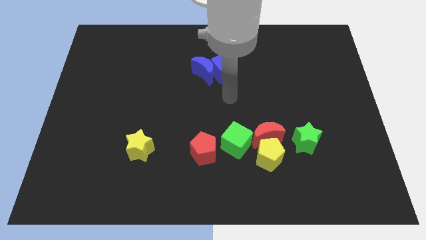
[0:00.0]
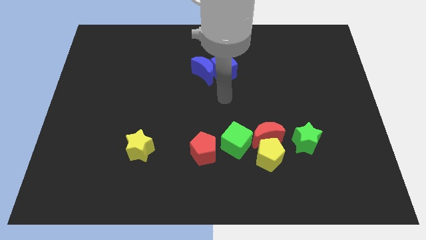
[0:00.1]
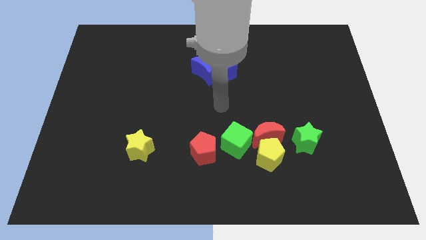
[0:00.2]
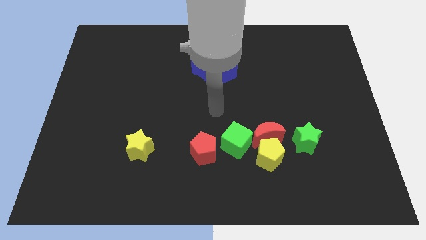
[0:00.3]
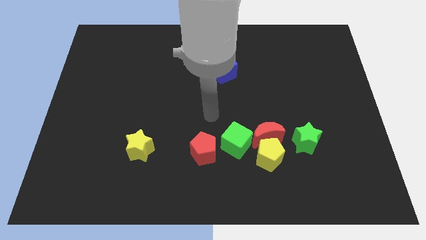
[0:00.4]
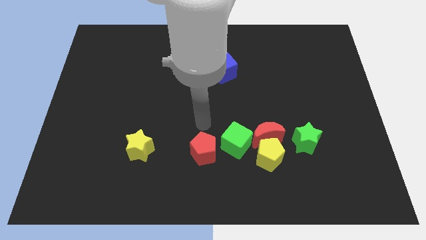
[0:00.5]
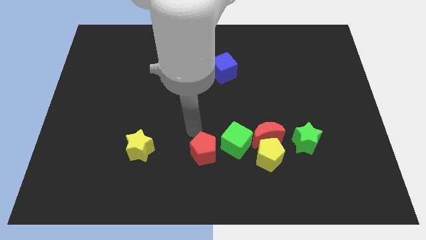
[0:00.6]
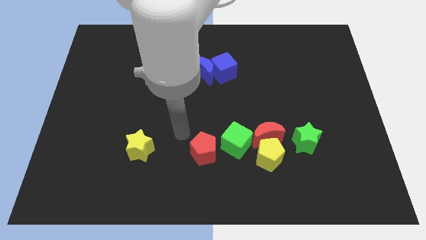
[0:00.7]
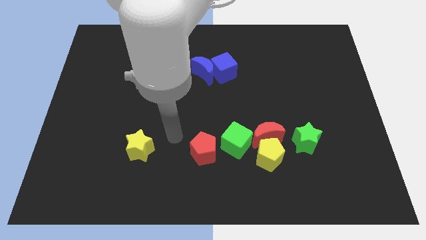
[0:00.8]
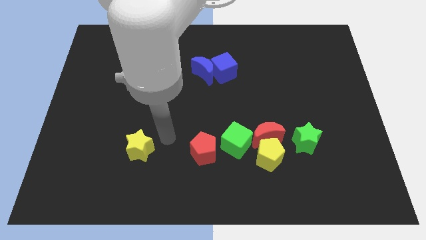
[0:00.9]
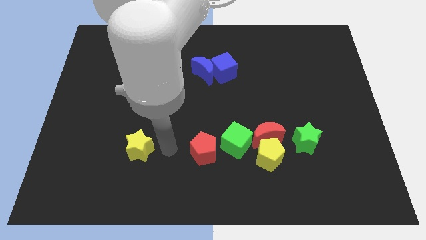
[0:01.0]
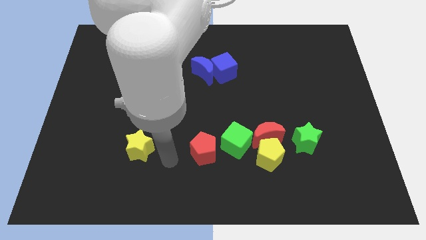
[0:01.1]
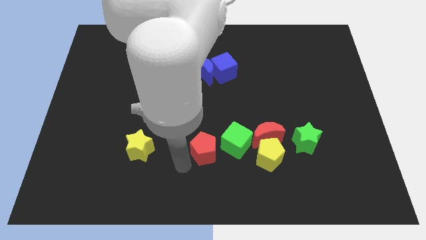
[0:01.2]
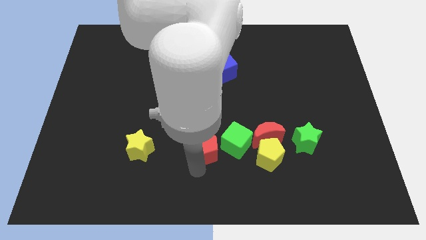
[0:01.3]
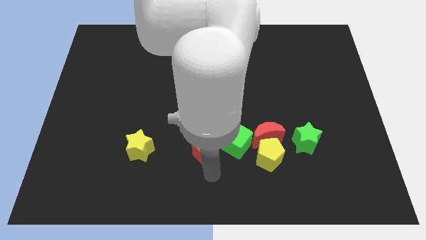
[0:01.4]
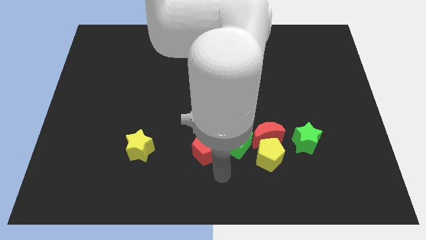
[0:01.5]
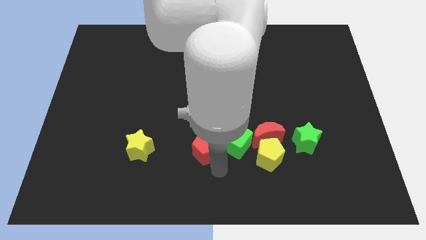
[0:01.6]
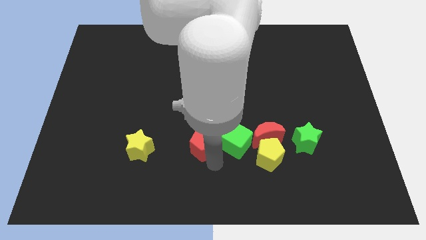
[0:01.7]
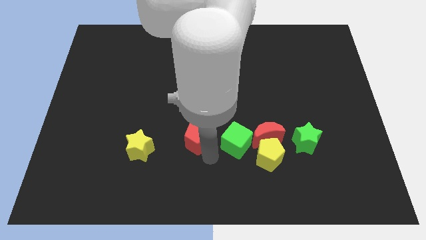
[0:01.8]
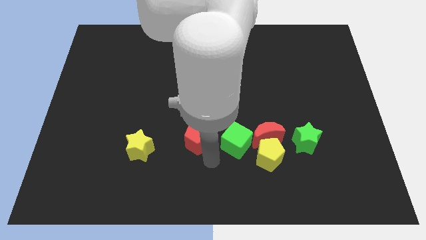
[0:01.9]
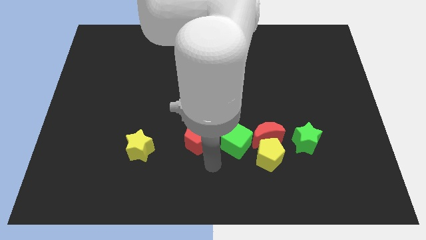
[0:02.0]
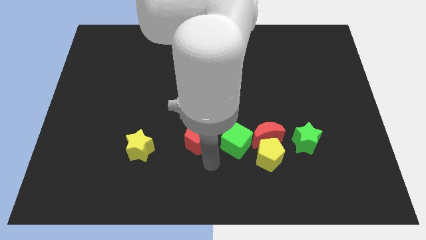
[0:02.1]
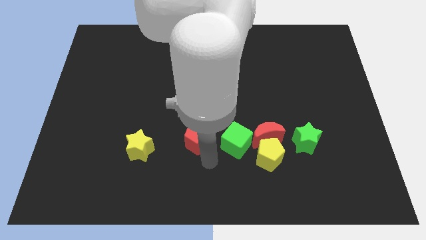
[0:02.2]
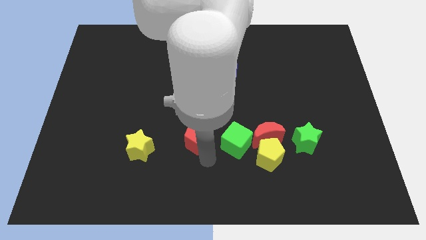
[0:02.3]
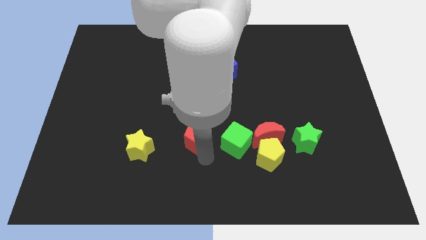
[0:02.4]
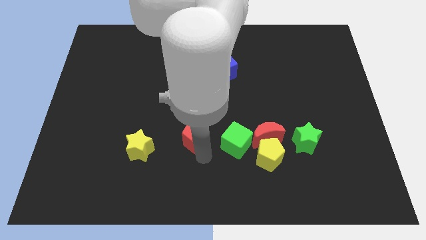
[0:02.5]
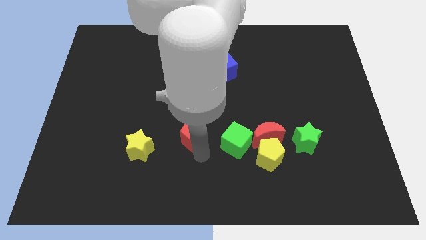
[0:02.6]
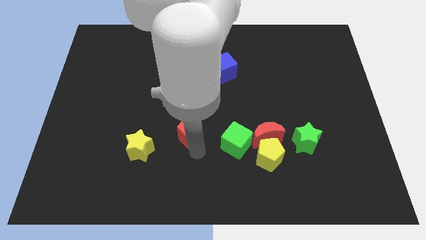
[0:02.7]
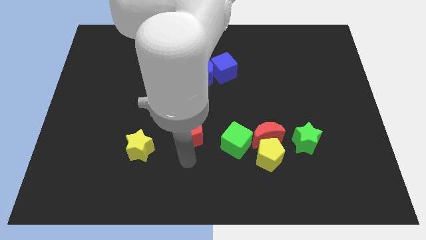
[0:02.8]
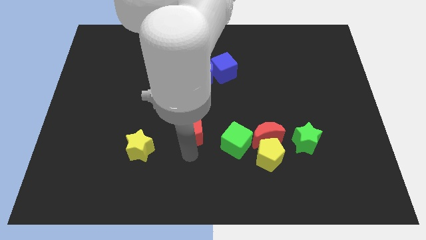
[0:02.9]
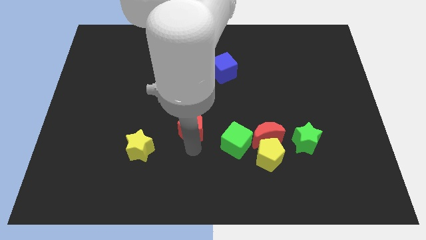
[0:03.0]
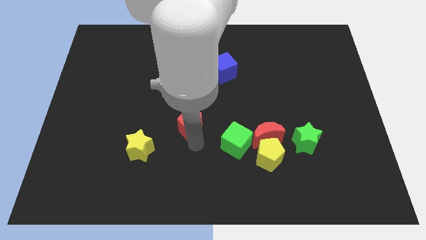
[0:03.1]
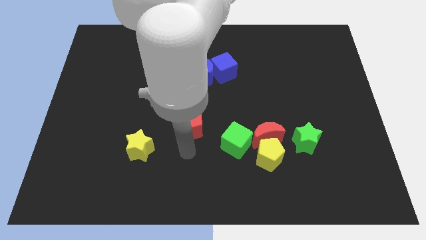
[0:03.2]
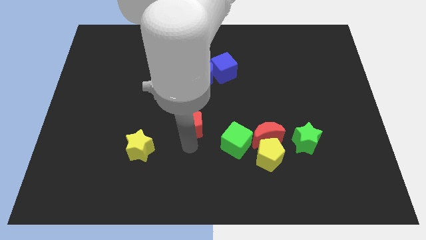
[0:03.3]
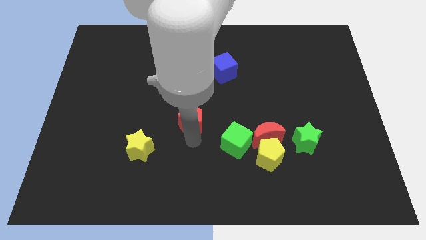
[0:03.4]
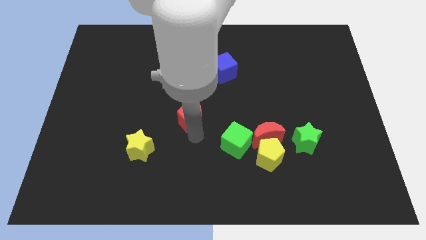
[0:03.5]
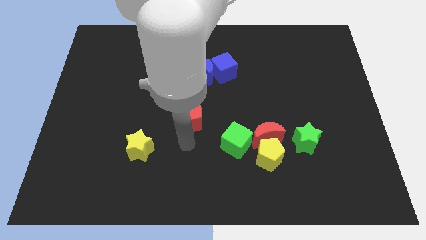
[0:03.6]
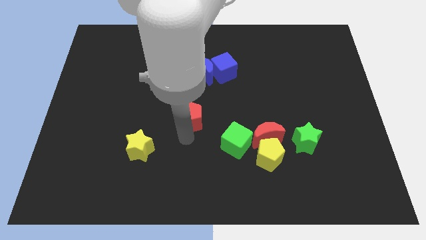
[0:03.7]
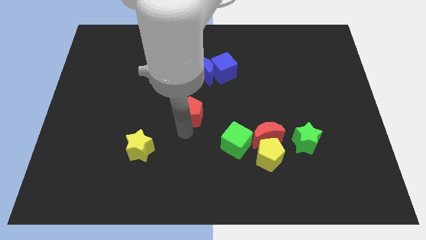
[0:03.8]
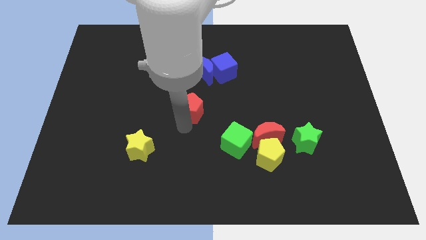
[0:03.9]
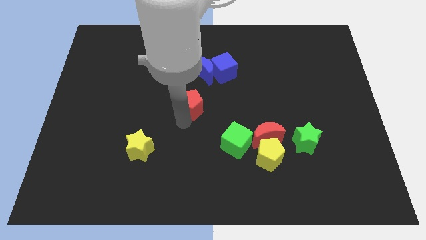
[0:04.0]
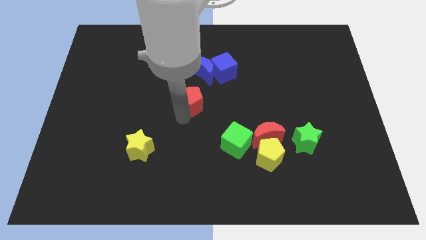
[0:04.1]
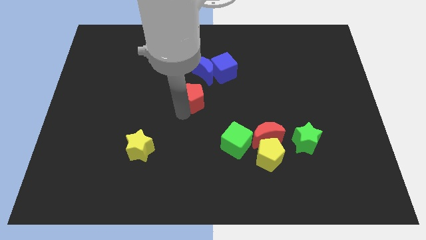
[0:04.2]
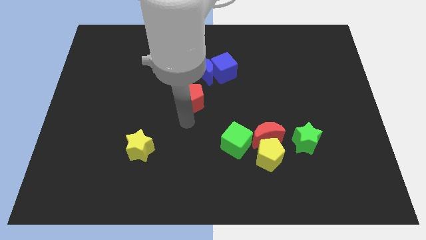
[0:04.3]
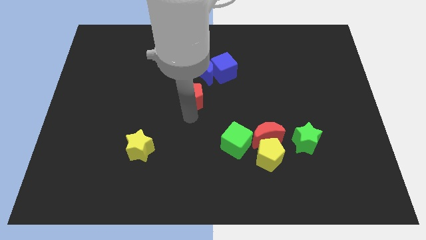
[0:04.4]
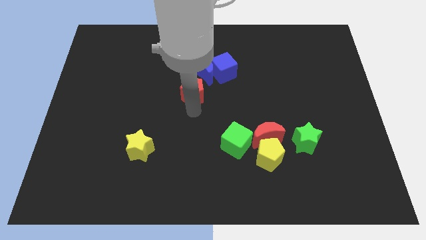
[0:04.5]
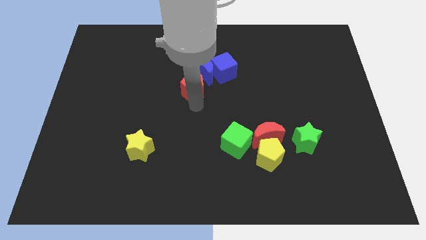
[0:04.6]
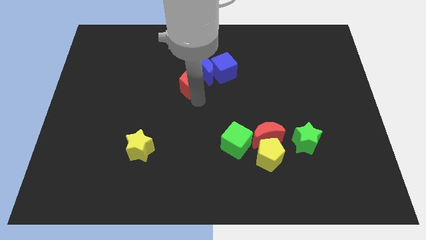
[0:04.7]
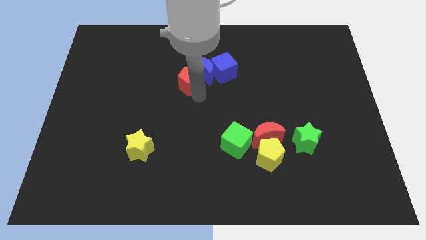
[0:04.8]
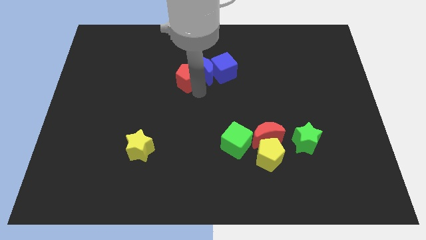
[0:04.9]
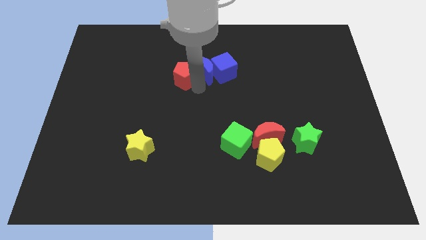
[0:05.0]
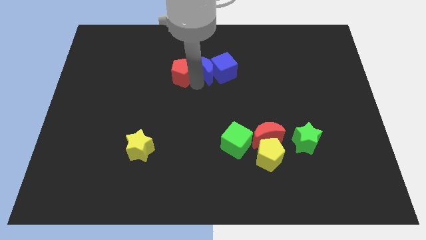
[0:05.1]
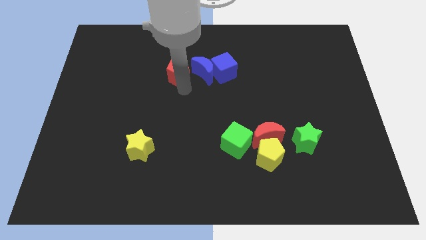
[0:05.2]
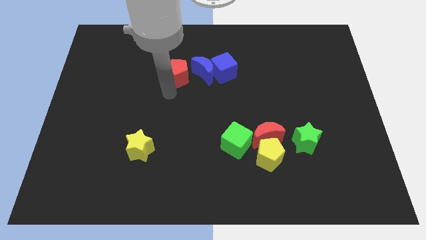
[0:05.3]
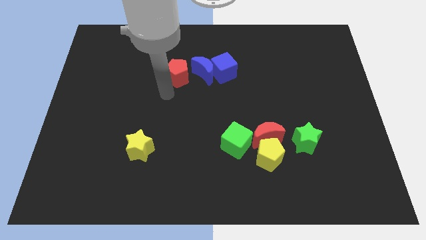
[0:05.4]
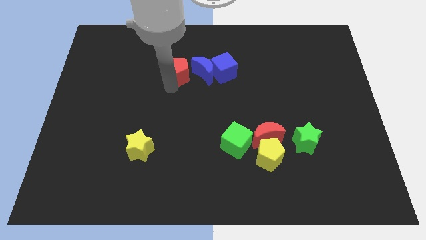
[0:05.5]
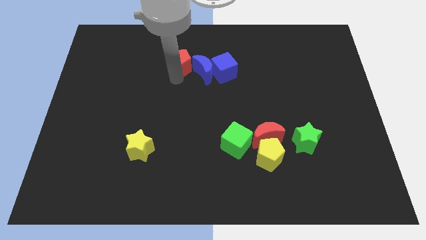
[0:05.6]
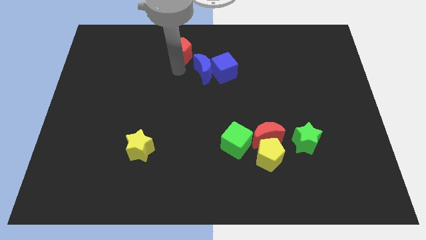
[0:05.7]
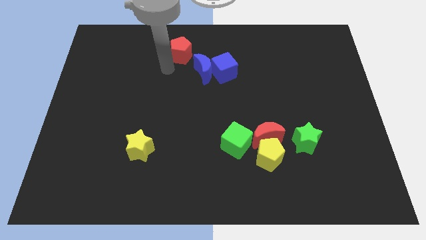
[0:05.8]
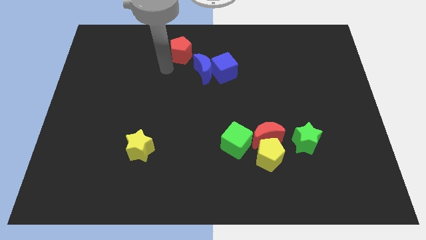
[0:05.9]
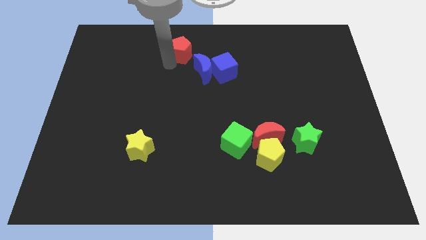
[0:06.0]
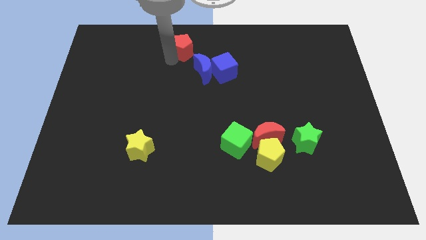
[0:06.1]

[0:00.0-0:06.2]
put the red pentagon to the towards your base

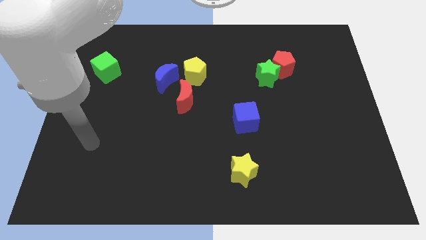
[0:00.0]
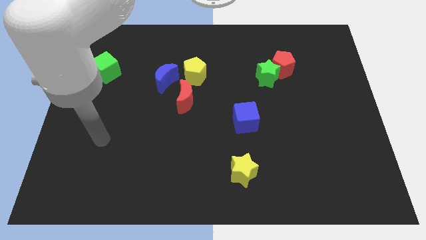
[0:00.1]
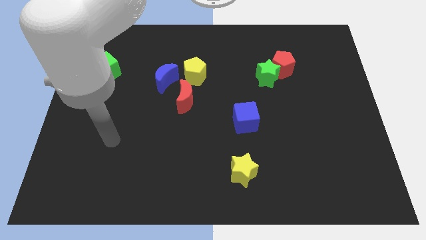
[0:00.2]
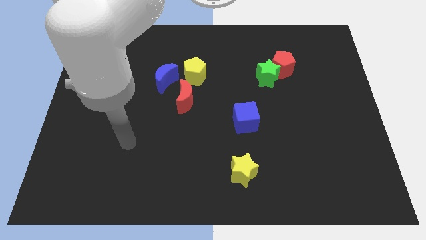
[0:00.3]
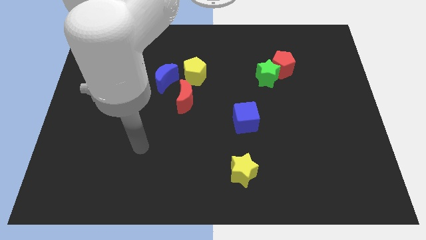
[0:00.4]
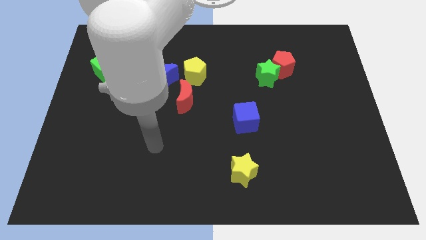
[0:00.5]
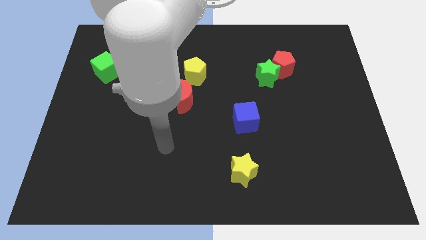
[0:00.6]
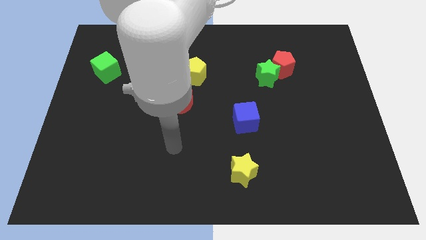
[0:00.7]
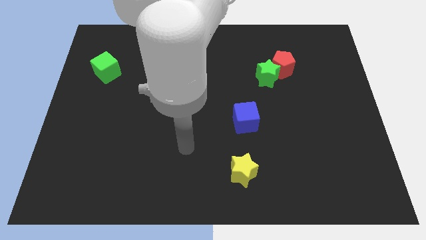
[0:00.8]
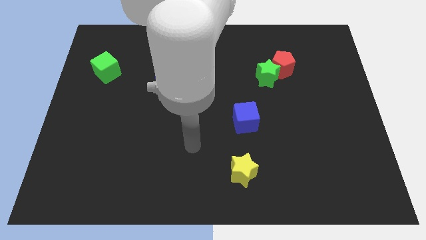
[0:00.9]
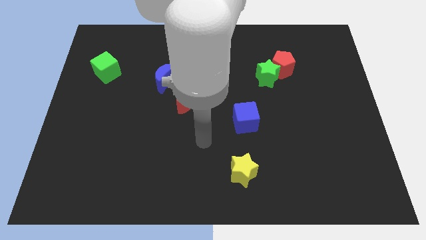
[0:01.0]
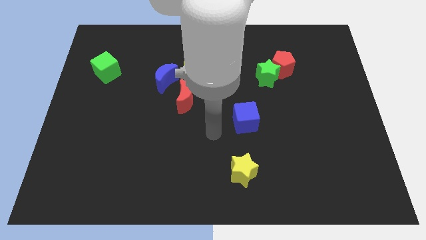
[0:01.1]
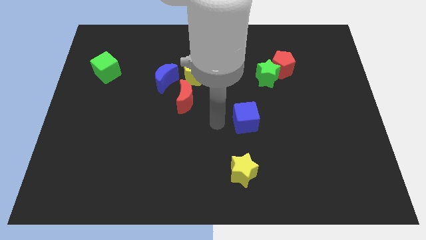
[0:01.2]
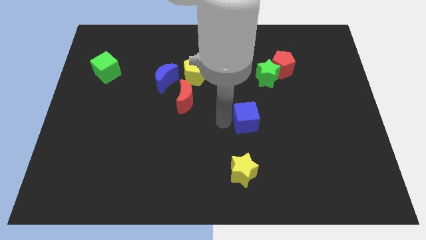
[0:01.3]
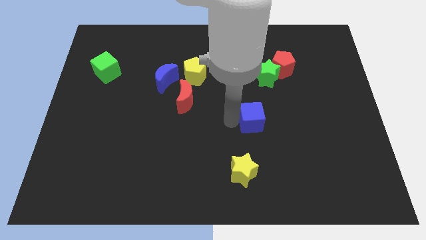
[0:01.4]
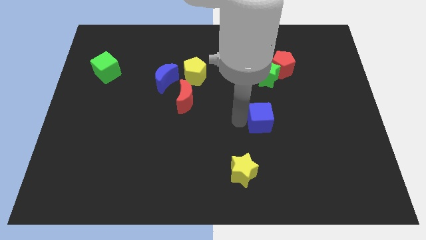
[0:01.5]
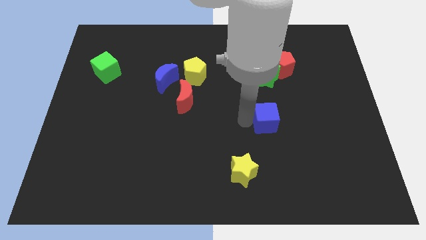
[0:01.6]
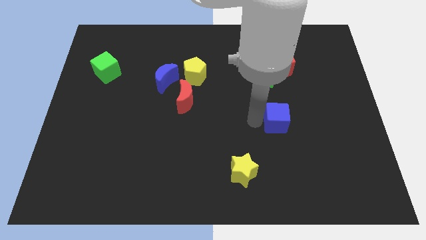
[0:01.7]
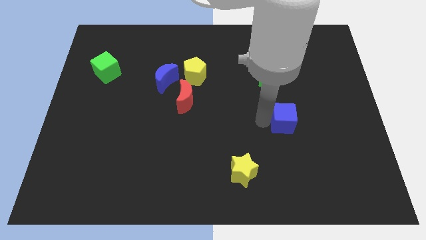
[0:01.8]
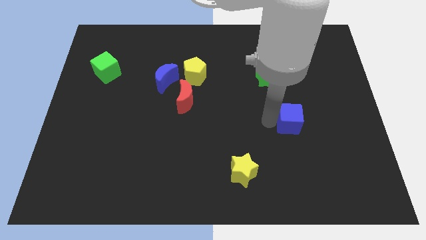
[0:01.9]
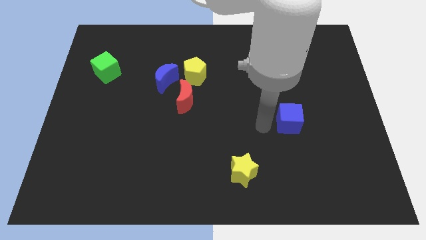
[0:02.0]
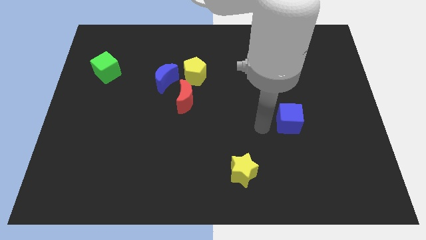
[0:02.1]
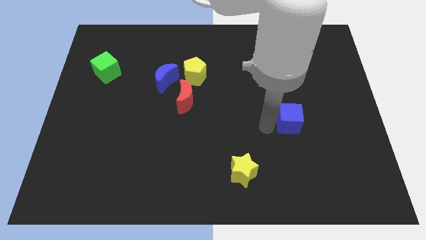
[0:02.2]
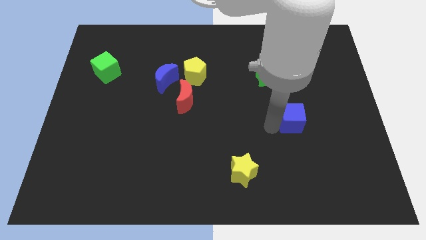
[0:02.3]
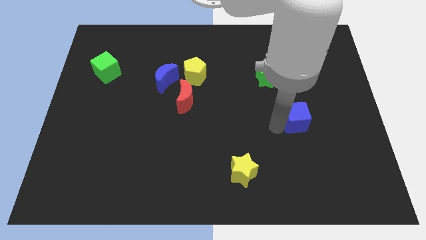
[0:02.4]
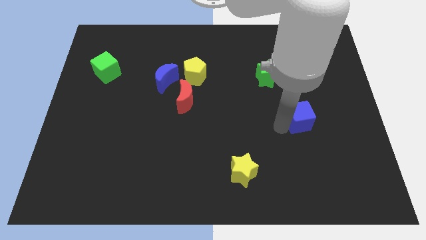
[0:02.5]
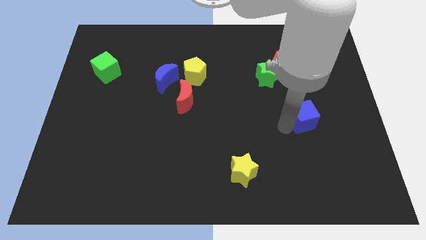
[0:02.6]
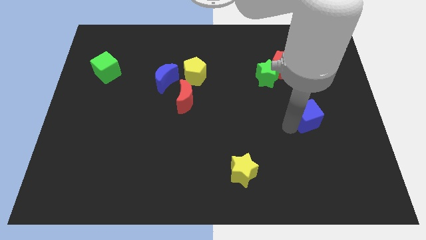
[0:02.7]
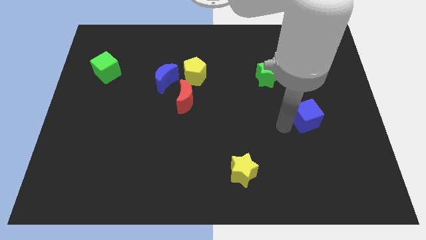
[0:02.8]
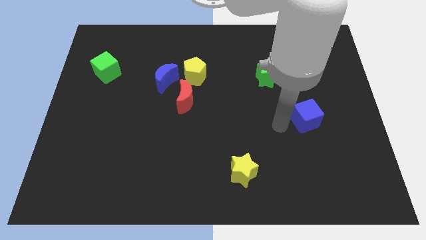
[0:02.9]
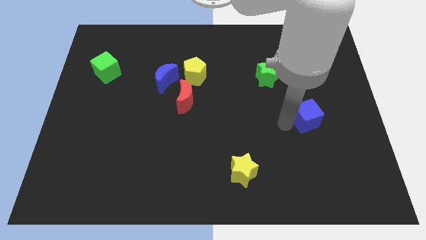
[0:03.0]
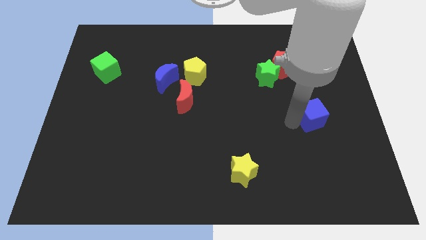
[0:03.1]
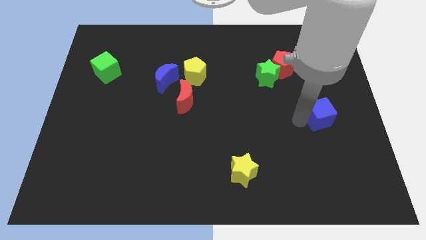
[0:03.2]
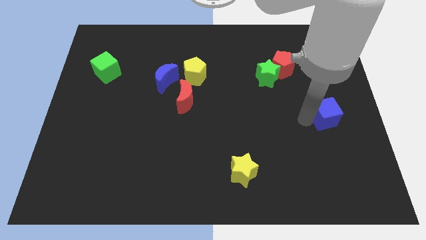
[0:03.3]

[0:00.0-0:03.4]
slide the blue cube to the right side of the board
